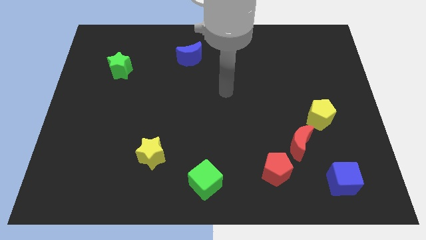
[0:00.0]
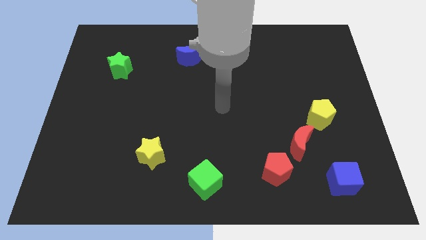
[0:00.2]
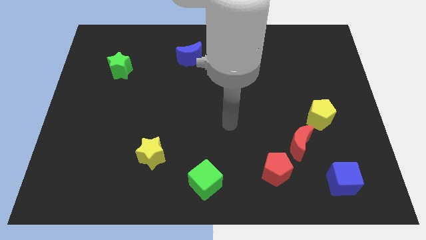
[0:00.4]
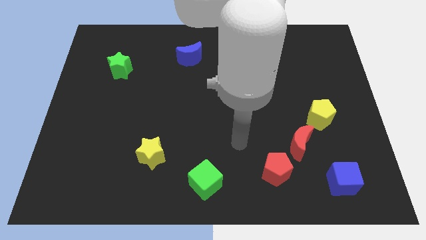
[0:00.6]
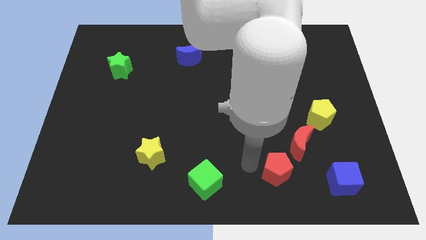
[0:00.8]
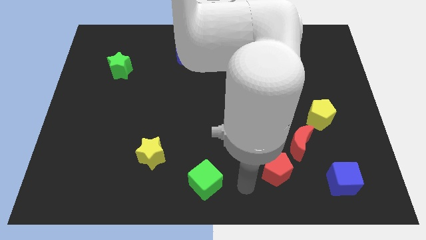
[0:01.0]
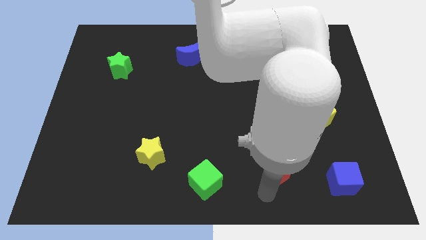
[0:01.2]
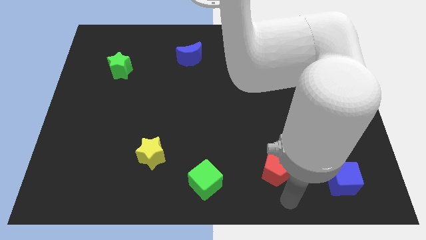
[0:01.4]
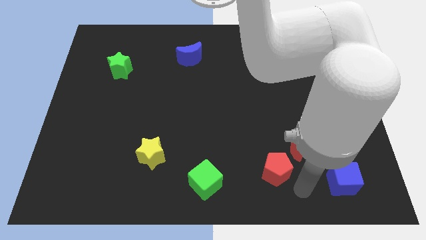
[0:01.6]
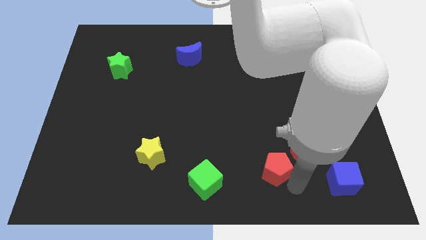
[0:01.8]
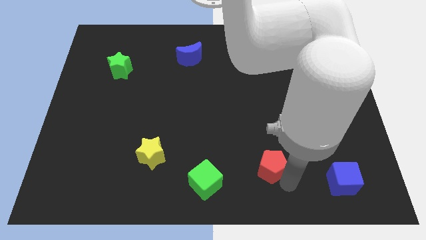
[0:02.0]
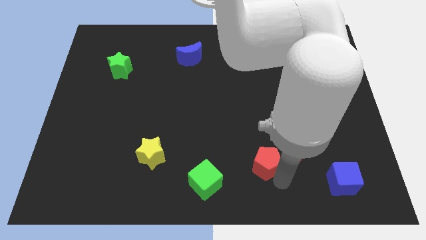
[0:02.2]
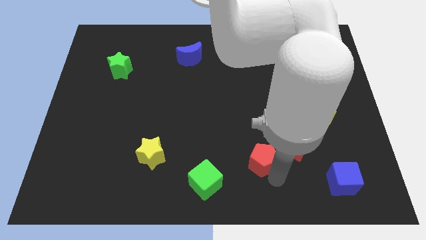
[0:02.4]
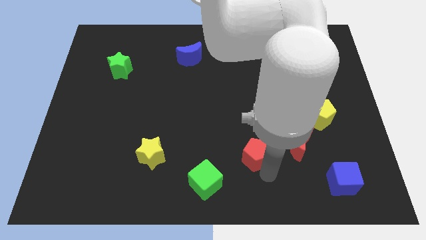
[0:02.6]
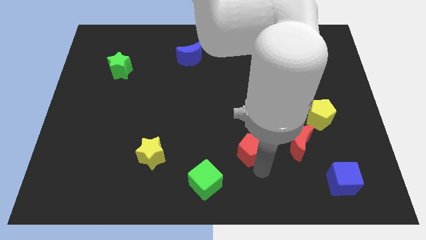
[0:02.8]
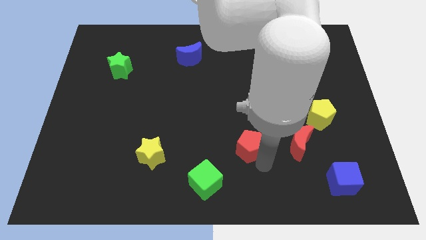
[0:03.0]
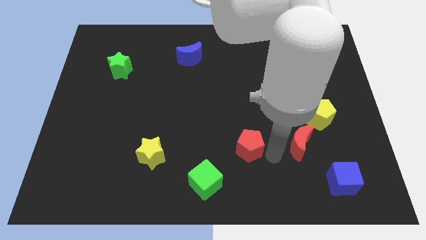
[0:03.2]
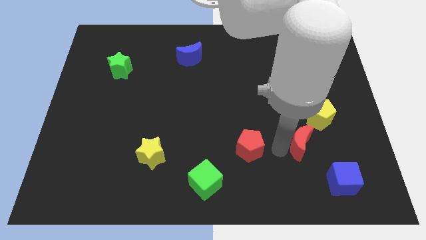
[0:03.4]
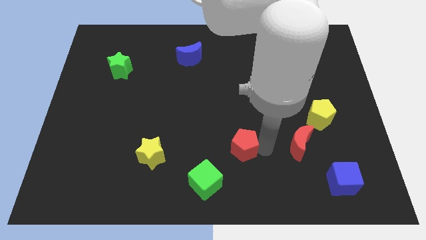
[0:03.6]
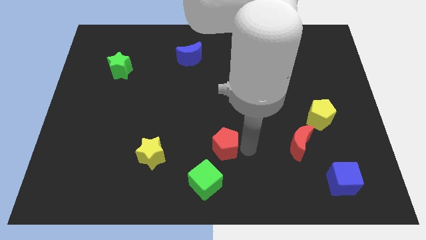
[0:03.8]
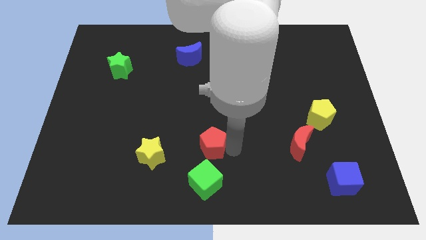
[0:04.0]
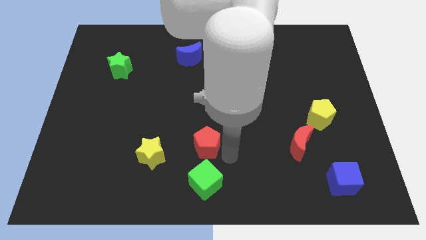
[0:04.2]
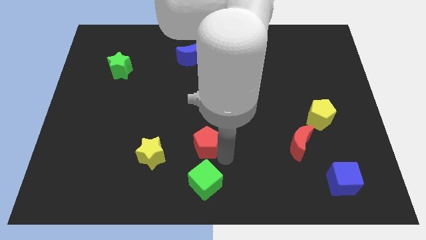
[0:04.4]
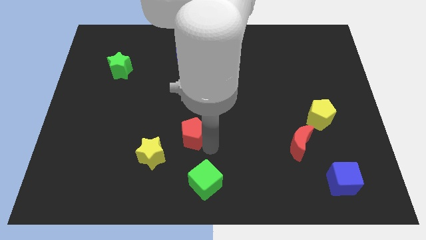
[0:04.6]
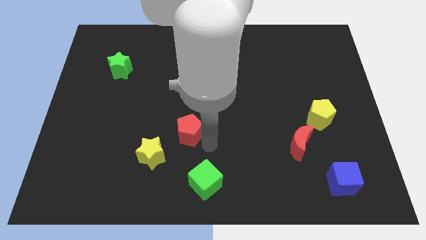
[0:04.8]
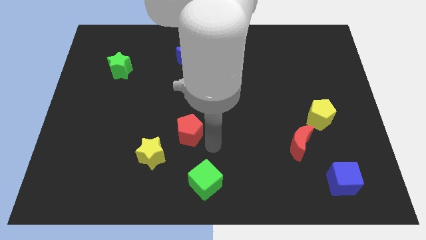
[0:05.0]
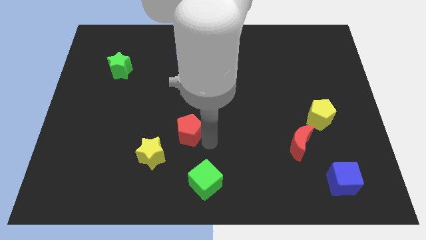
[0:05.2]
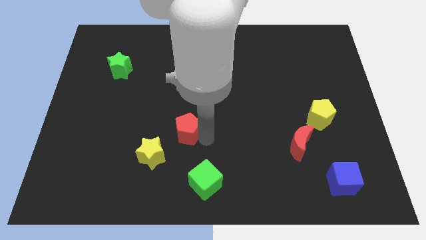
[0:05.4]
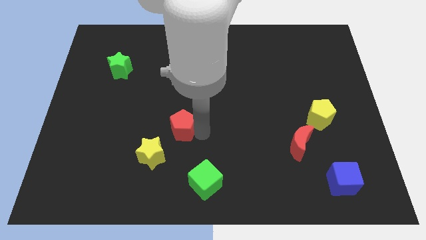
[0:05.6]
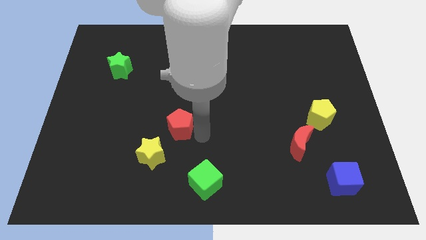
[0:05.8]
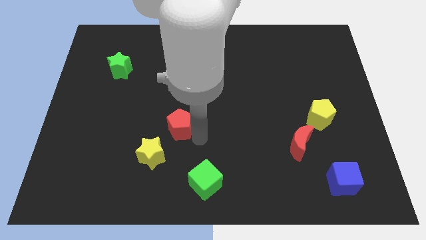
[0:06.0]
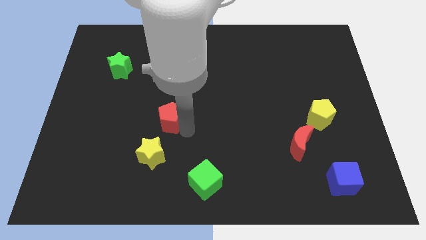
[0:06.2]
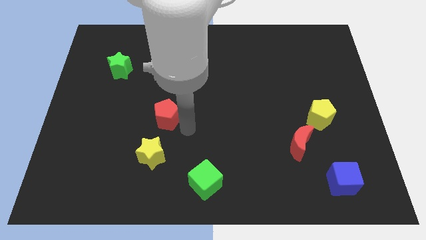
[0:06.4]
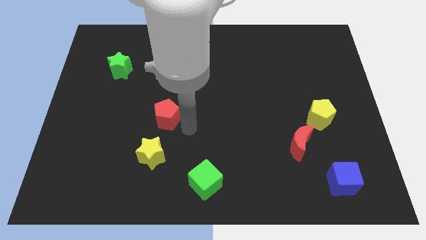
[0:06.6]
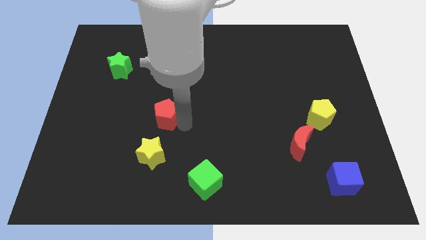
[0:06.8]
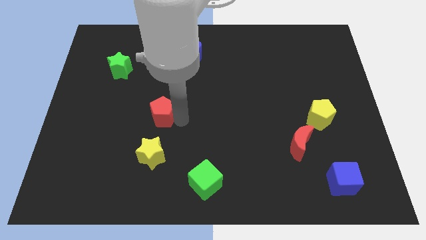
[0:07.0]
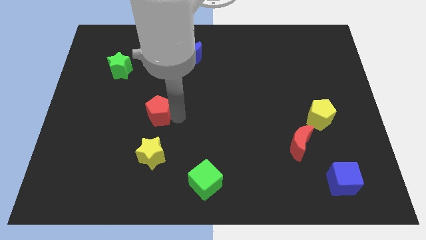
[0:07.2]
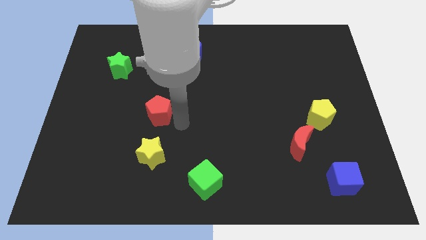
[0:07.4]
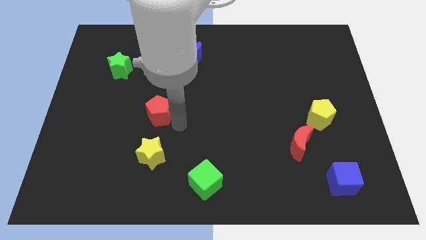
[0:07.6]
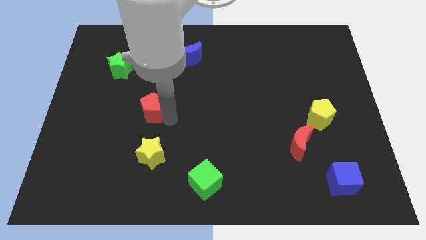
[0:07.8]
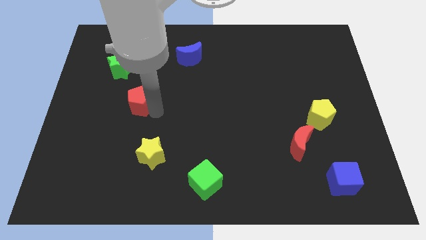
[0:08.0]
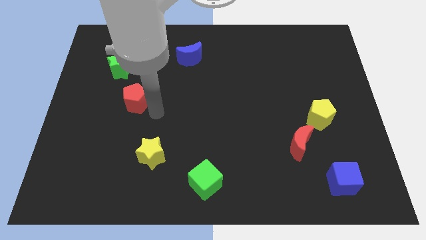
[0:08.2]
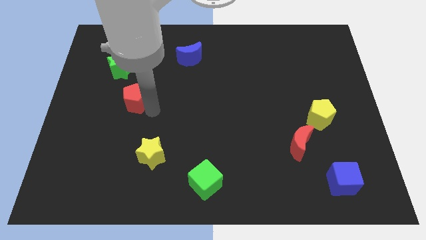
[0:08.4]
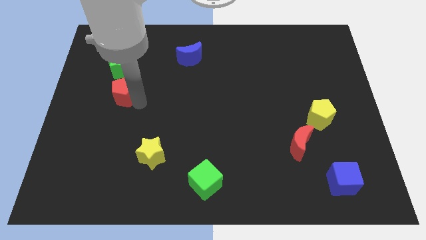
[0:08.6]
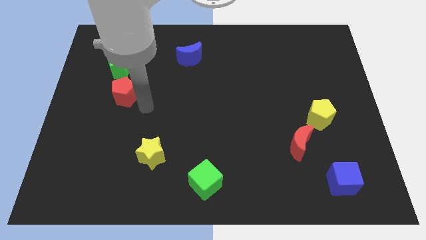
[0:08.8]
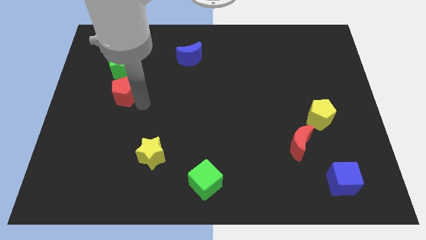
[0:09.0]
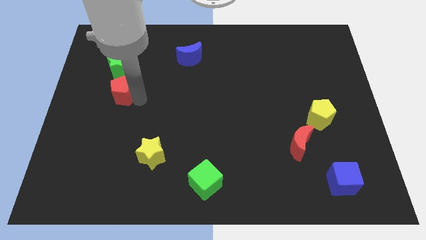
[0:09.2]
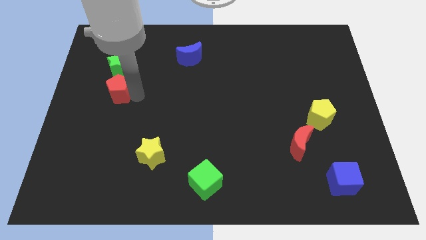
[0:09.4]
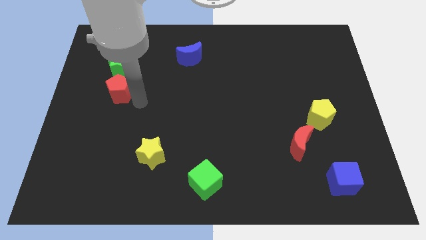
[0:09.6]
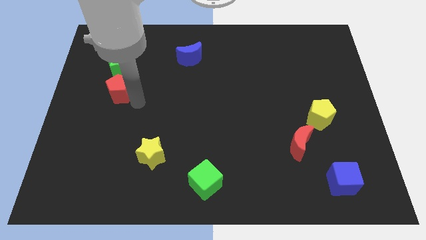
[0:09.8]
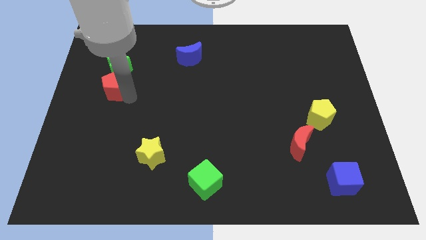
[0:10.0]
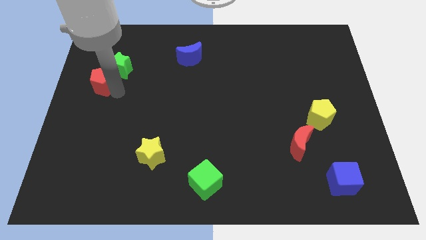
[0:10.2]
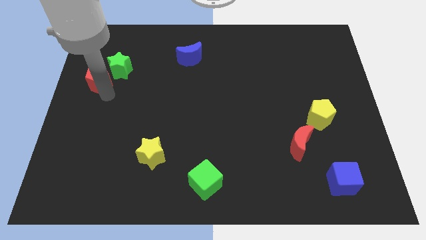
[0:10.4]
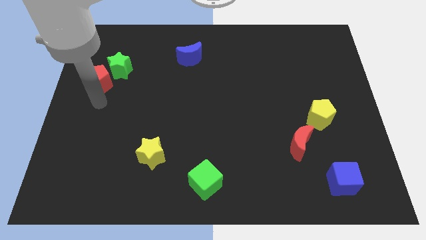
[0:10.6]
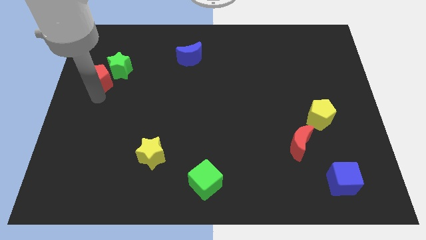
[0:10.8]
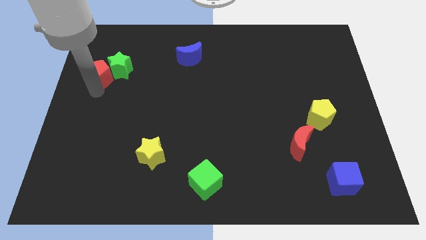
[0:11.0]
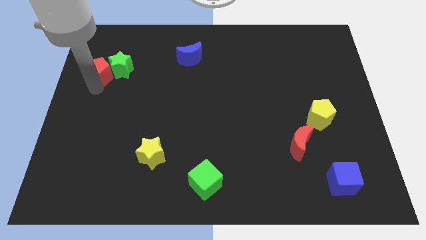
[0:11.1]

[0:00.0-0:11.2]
put the red pentagon diagonally up and to the left of the green star

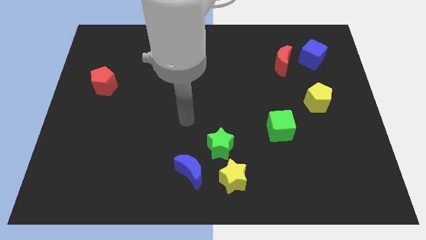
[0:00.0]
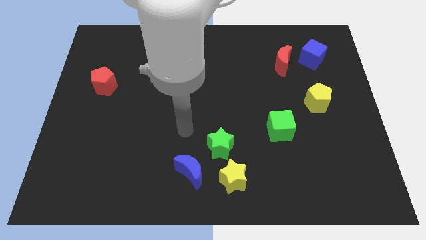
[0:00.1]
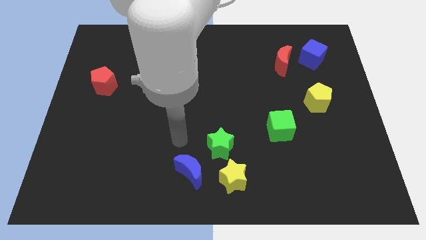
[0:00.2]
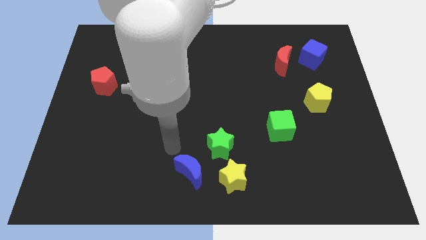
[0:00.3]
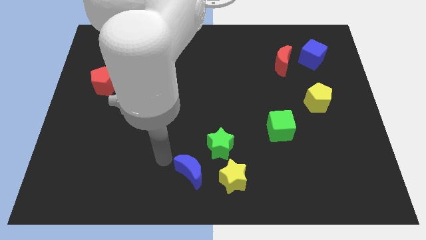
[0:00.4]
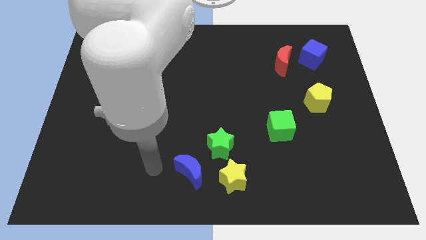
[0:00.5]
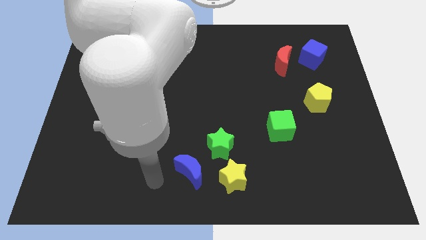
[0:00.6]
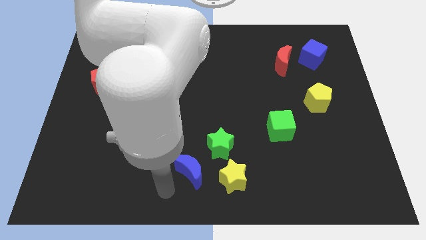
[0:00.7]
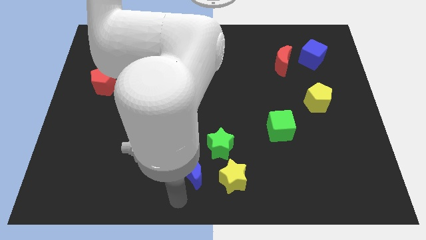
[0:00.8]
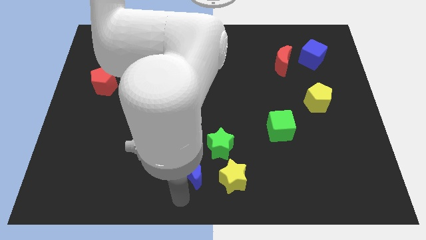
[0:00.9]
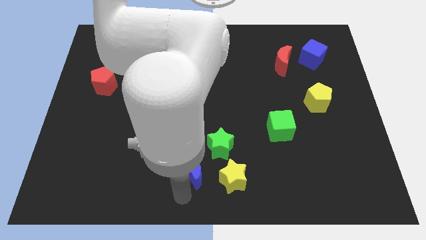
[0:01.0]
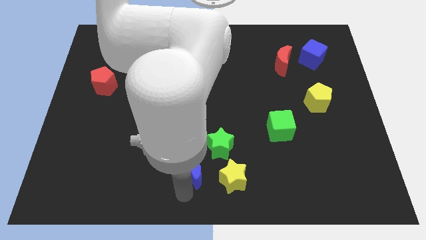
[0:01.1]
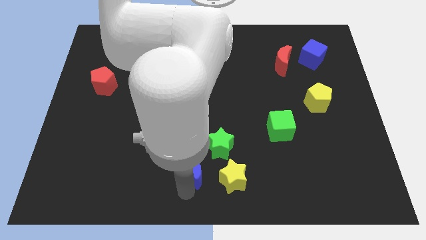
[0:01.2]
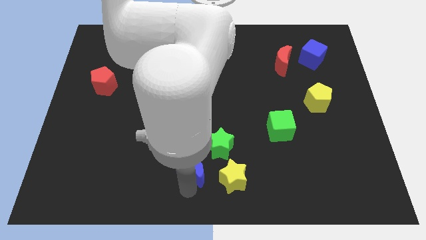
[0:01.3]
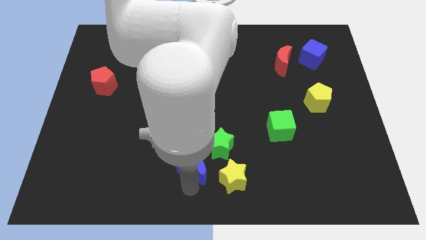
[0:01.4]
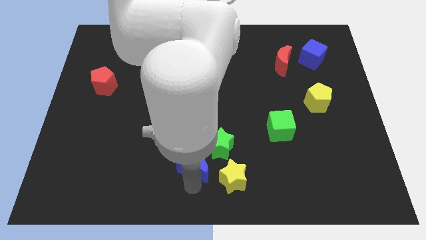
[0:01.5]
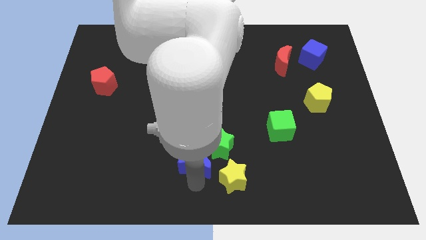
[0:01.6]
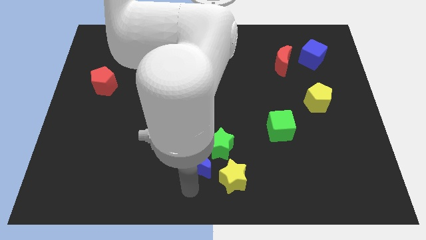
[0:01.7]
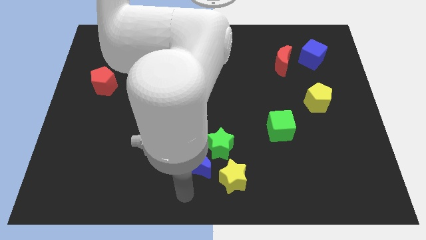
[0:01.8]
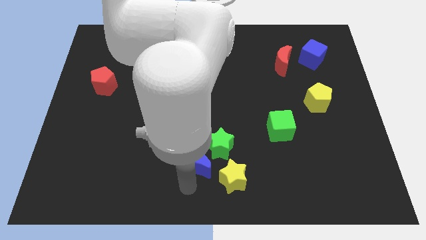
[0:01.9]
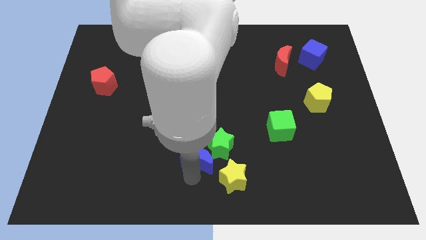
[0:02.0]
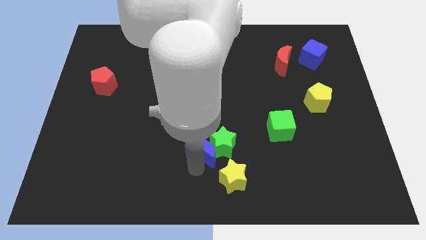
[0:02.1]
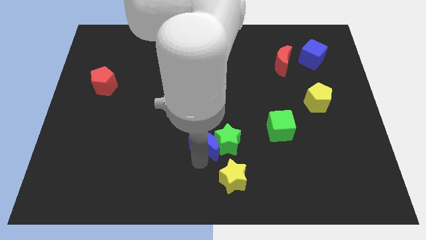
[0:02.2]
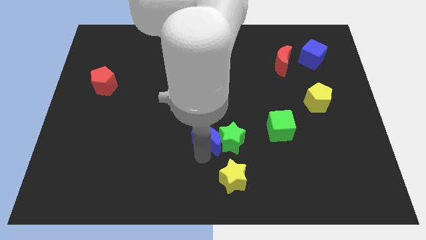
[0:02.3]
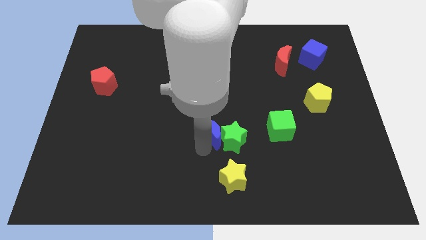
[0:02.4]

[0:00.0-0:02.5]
push the blue moon to the left side of the green cube
